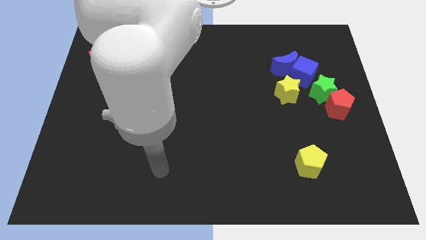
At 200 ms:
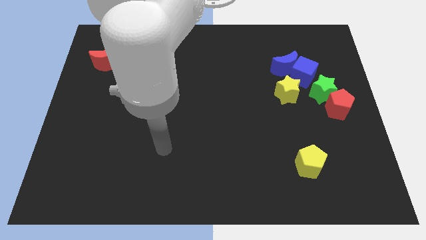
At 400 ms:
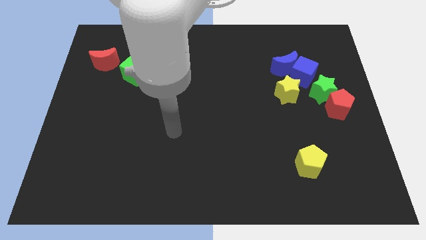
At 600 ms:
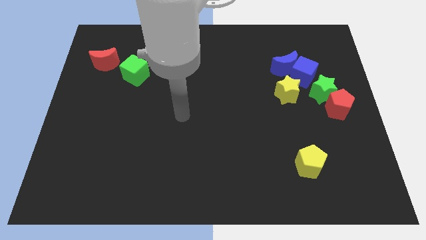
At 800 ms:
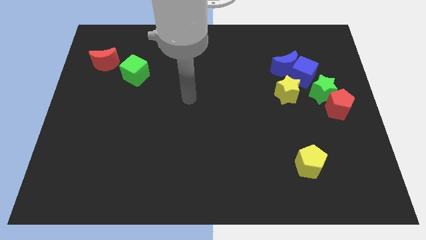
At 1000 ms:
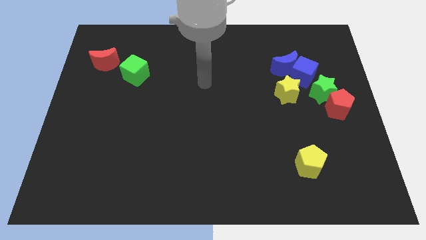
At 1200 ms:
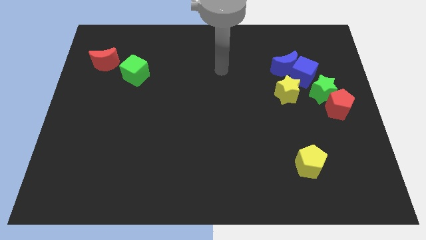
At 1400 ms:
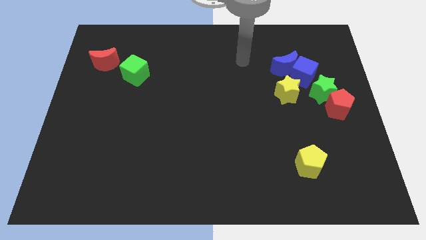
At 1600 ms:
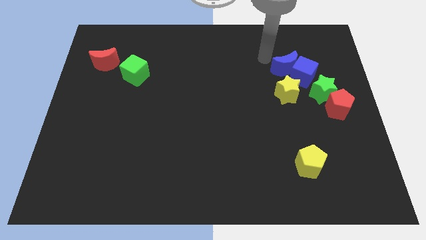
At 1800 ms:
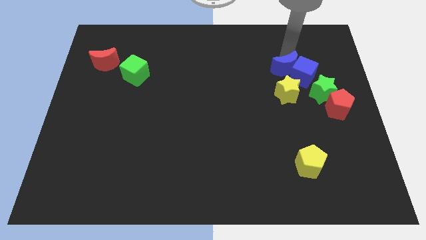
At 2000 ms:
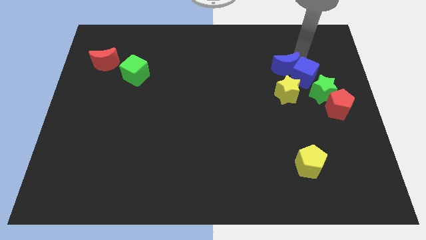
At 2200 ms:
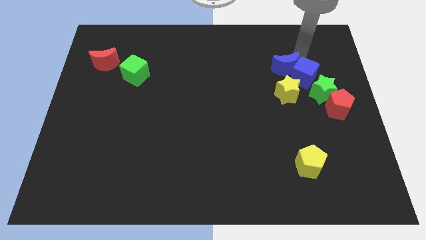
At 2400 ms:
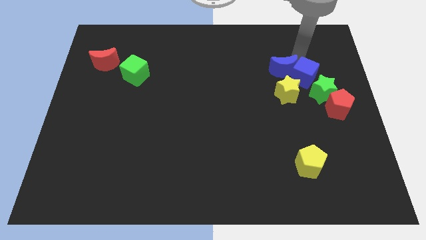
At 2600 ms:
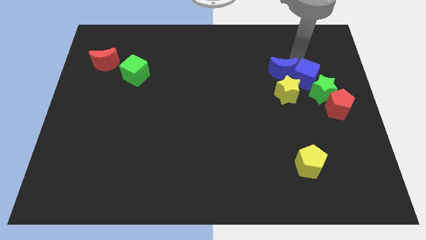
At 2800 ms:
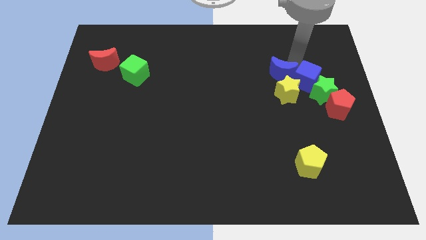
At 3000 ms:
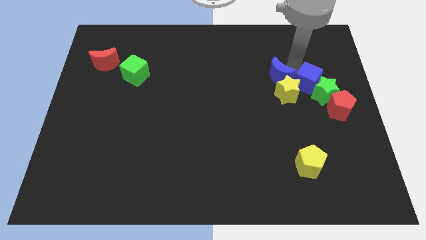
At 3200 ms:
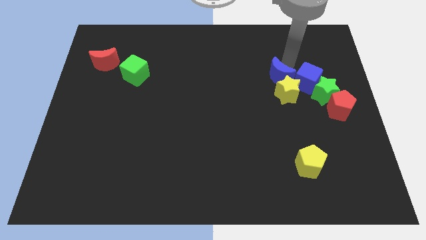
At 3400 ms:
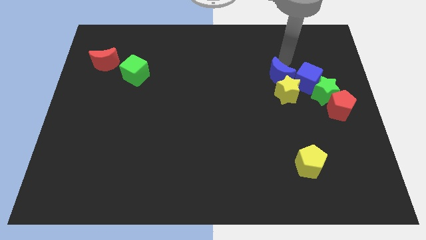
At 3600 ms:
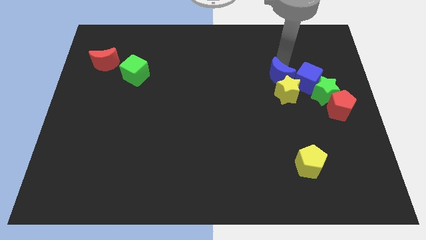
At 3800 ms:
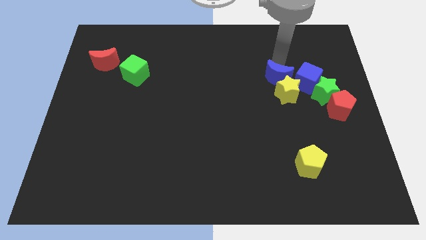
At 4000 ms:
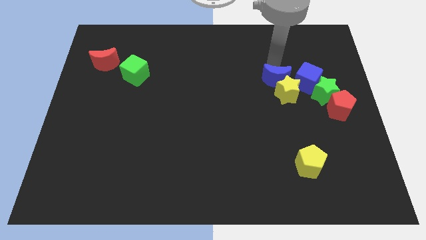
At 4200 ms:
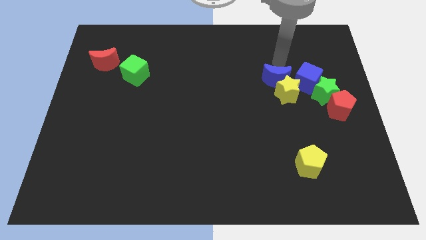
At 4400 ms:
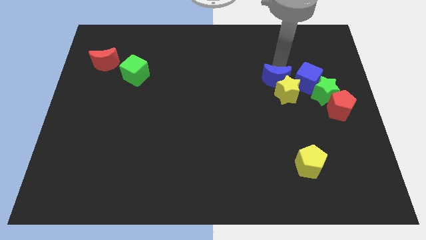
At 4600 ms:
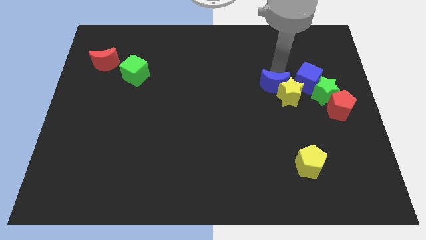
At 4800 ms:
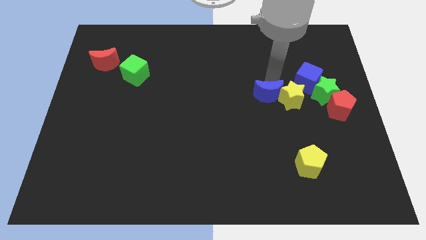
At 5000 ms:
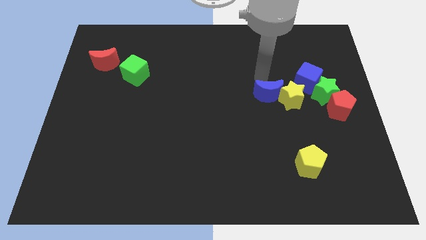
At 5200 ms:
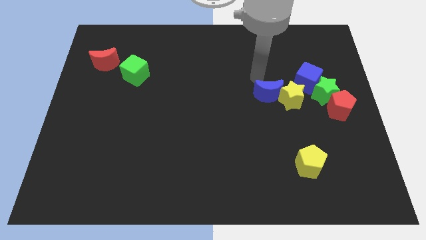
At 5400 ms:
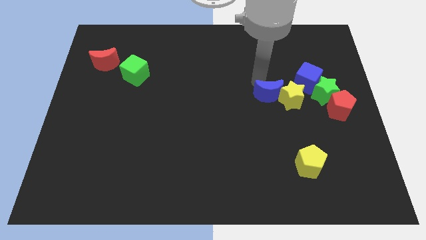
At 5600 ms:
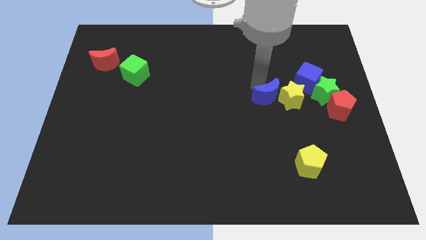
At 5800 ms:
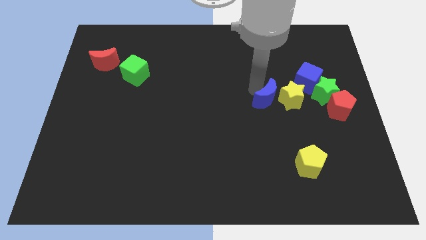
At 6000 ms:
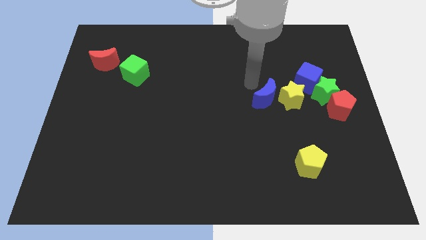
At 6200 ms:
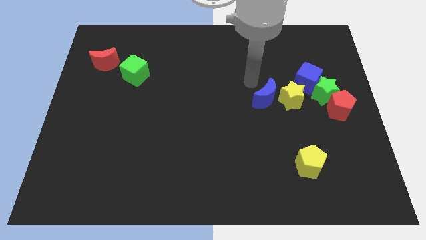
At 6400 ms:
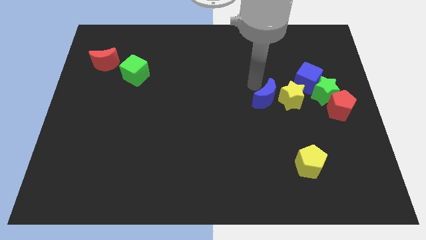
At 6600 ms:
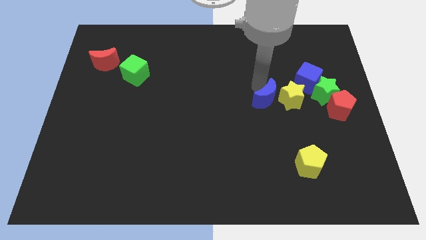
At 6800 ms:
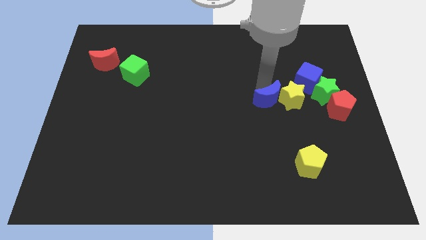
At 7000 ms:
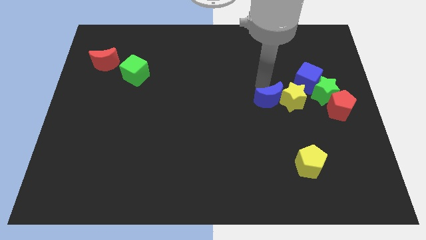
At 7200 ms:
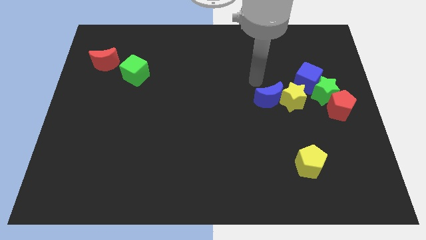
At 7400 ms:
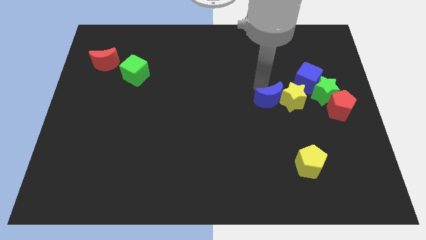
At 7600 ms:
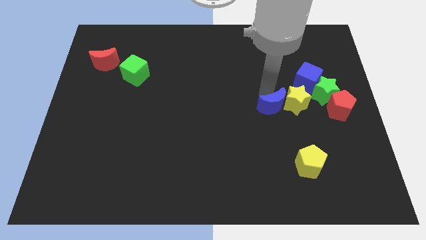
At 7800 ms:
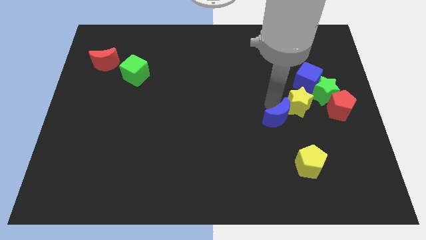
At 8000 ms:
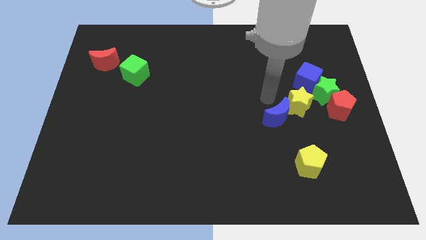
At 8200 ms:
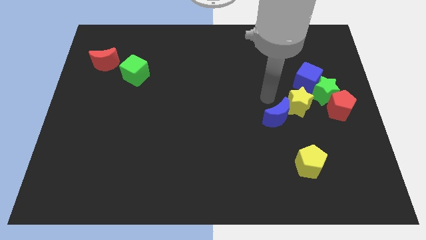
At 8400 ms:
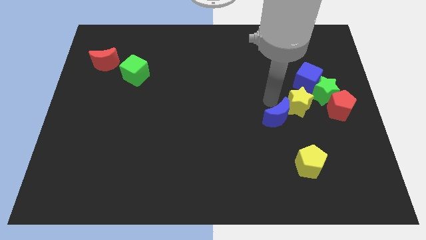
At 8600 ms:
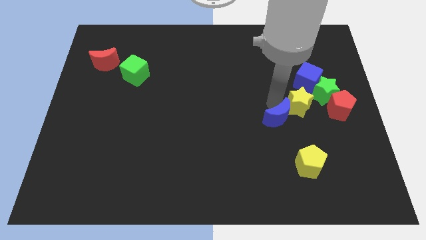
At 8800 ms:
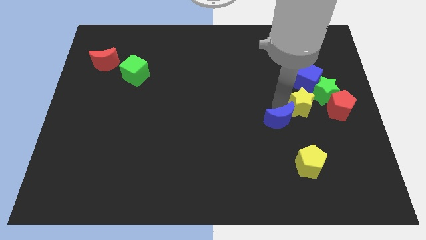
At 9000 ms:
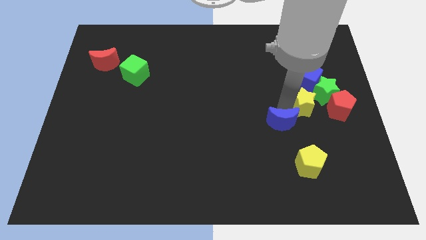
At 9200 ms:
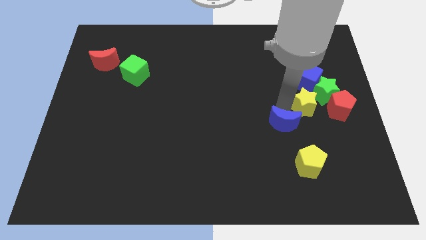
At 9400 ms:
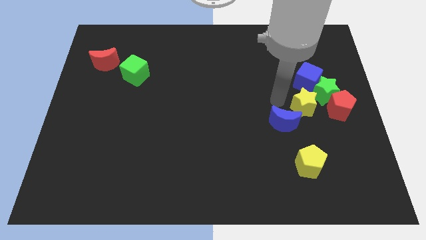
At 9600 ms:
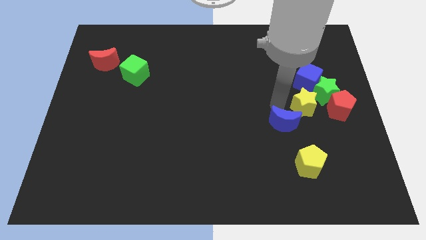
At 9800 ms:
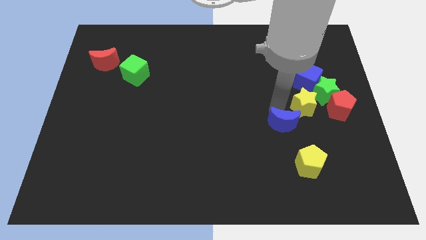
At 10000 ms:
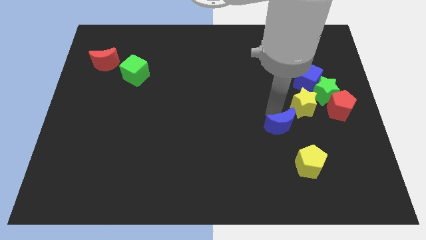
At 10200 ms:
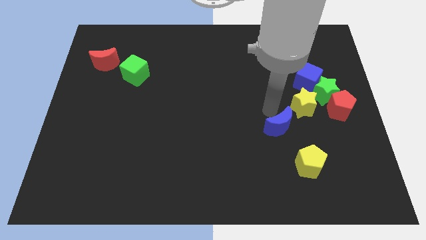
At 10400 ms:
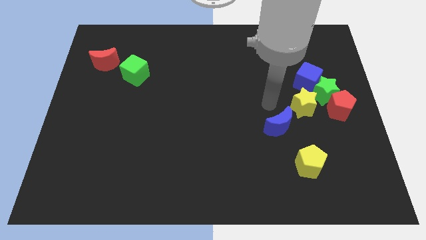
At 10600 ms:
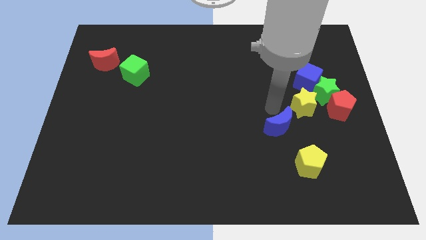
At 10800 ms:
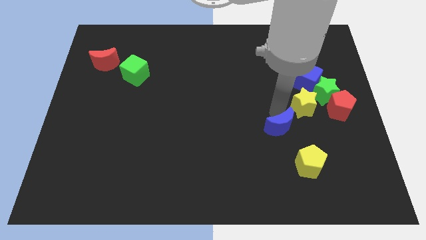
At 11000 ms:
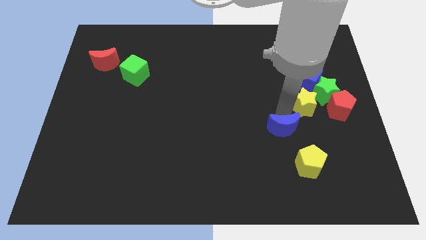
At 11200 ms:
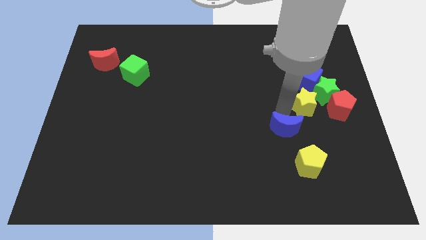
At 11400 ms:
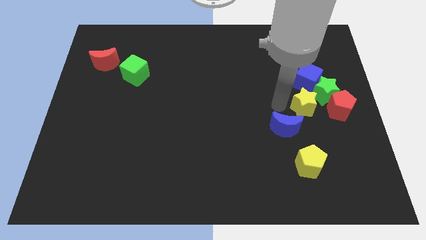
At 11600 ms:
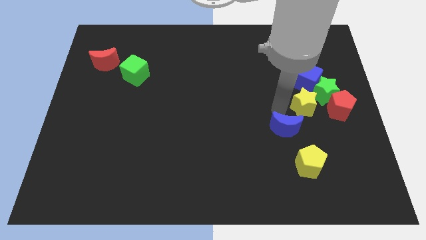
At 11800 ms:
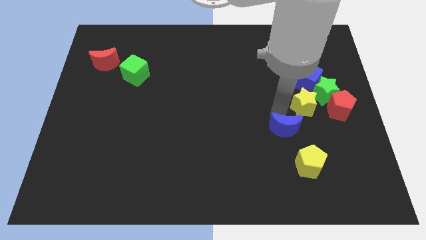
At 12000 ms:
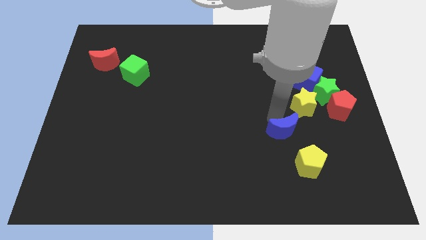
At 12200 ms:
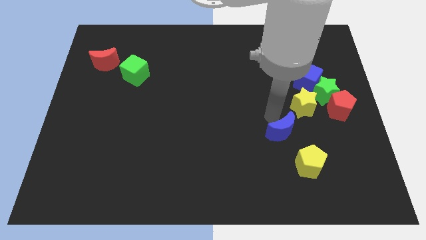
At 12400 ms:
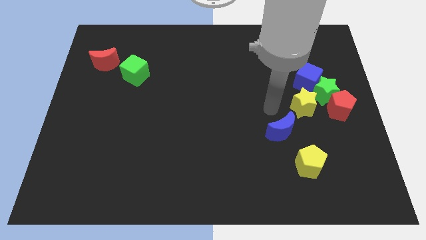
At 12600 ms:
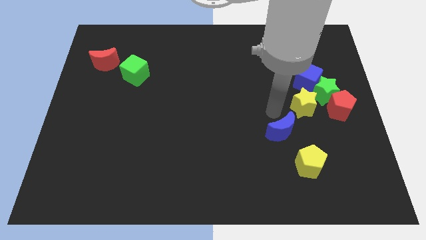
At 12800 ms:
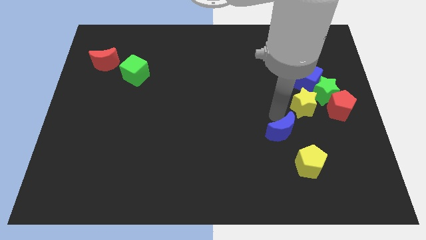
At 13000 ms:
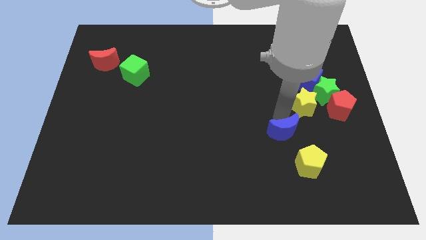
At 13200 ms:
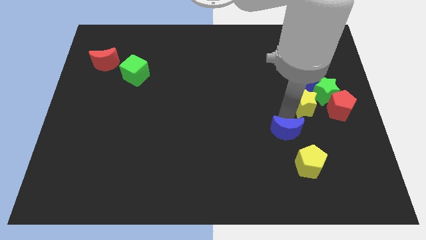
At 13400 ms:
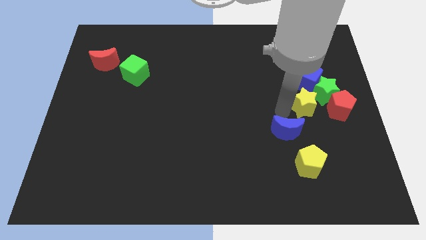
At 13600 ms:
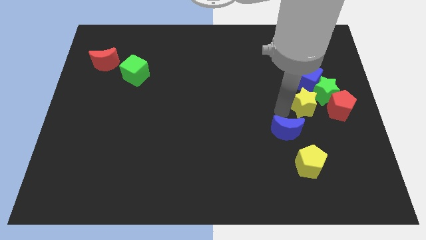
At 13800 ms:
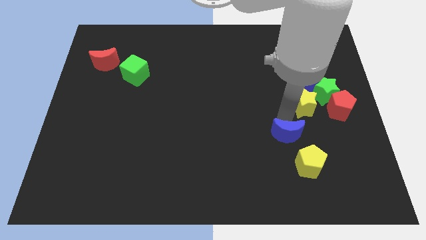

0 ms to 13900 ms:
slide the blue moon down

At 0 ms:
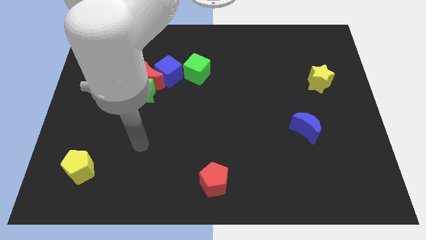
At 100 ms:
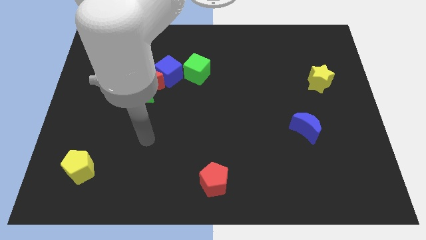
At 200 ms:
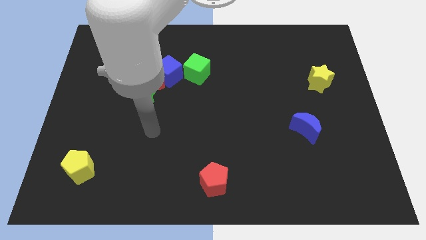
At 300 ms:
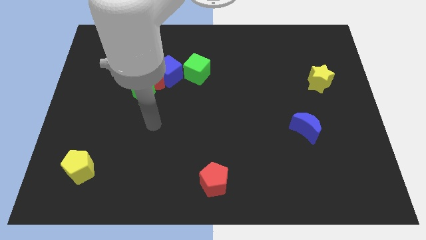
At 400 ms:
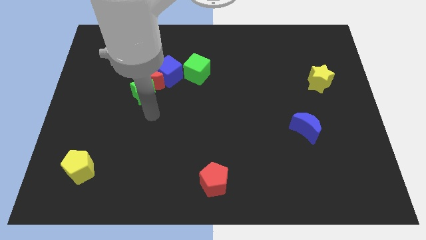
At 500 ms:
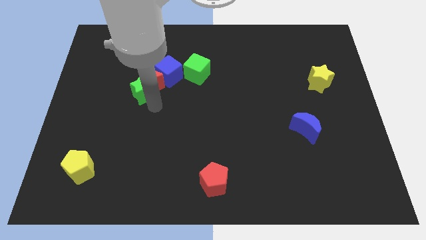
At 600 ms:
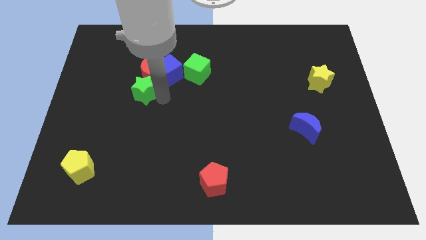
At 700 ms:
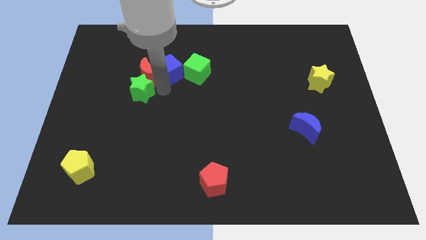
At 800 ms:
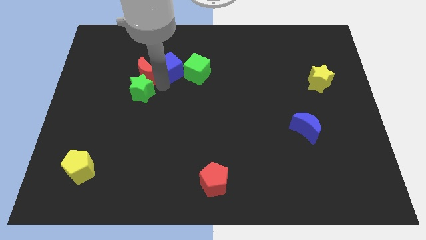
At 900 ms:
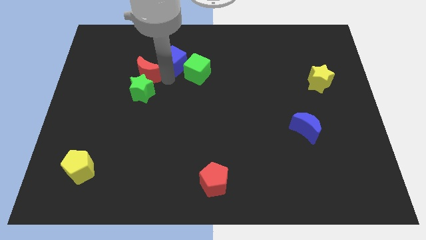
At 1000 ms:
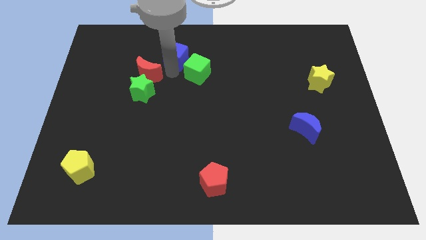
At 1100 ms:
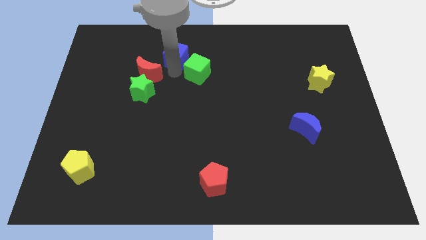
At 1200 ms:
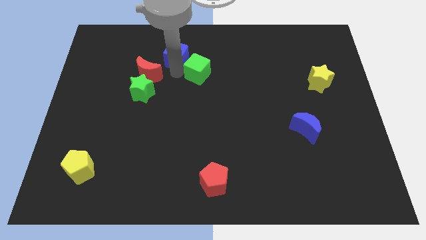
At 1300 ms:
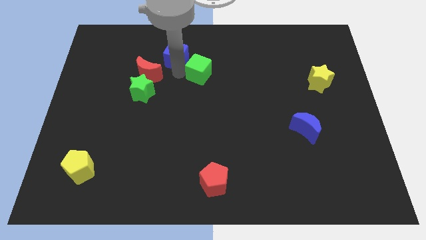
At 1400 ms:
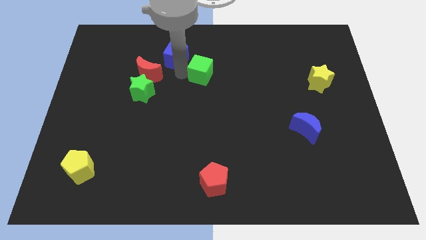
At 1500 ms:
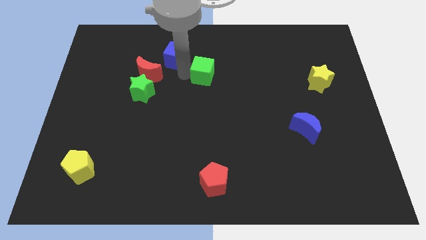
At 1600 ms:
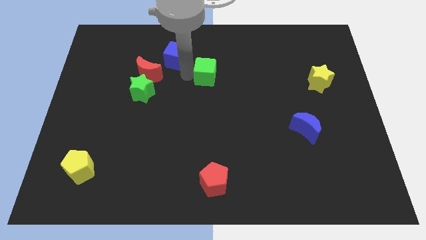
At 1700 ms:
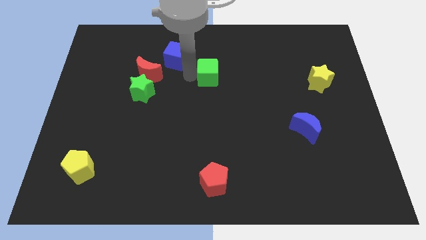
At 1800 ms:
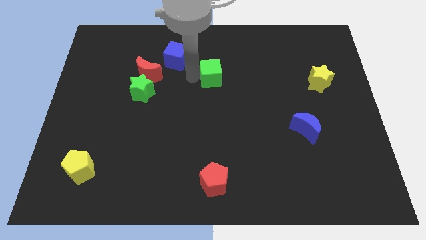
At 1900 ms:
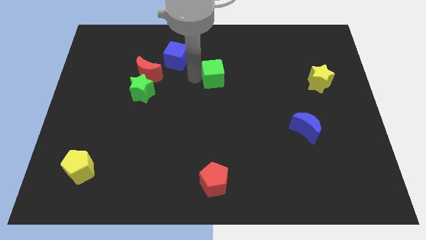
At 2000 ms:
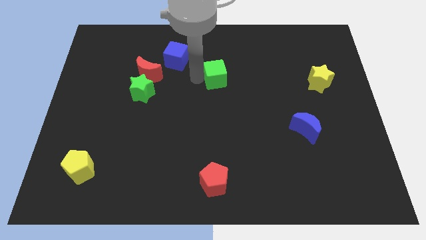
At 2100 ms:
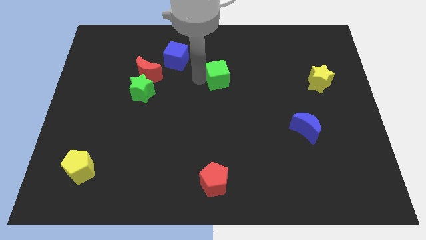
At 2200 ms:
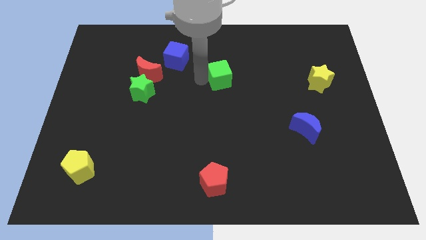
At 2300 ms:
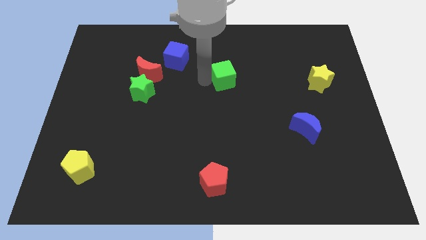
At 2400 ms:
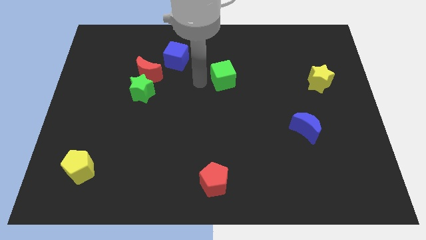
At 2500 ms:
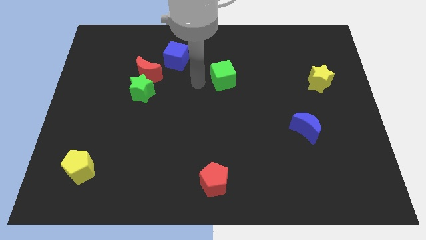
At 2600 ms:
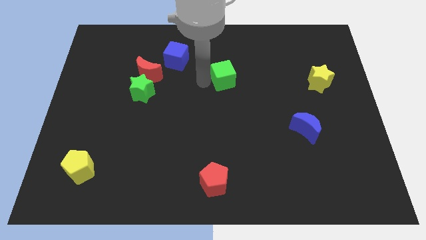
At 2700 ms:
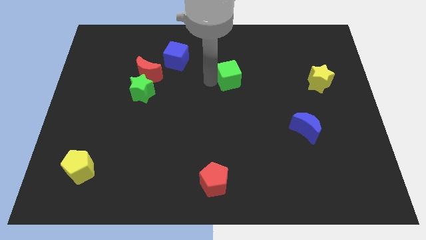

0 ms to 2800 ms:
slightly push the green cube right
